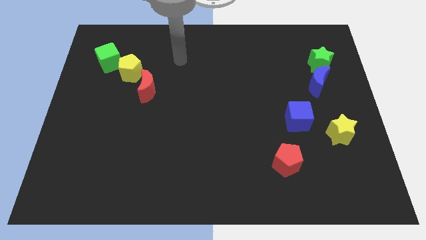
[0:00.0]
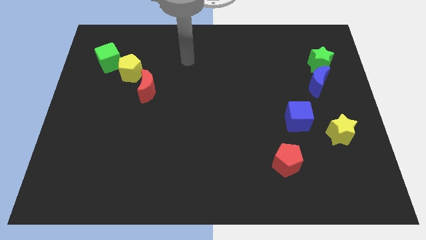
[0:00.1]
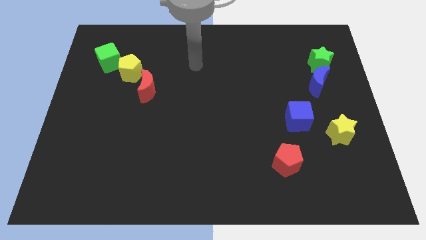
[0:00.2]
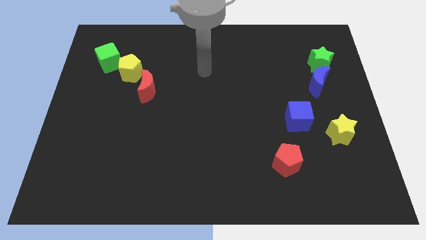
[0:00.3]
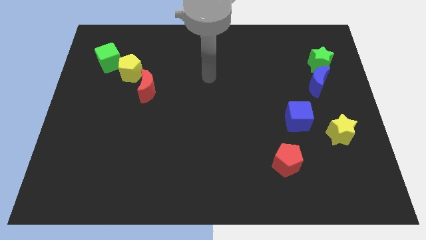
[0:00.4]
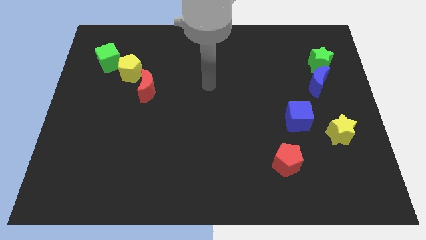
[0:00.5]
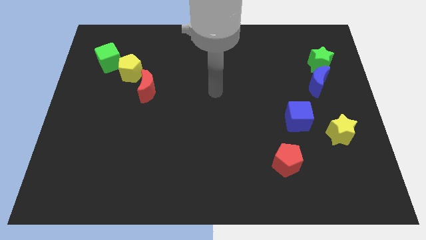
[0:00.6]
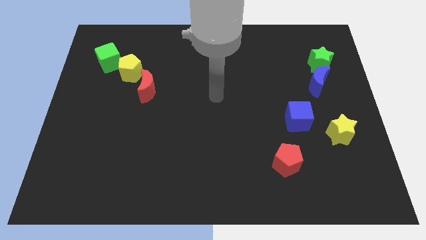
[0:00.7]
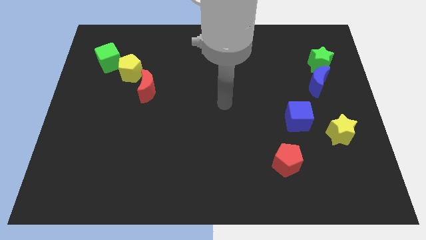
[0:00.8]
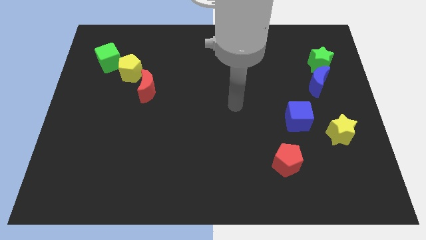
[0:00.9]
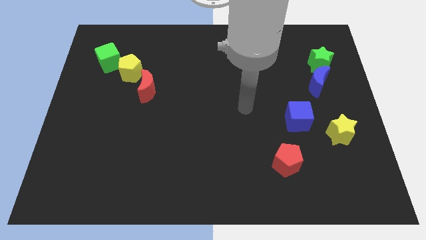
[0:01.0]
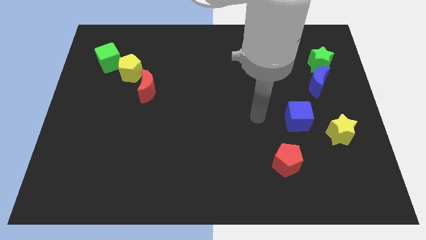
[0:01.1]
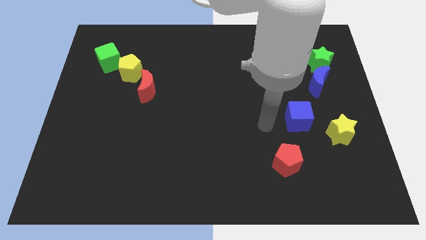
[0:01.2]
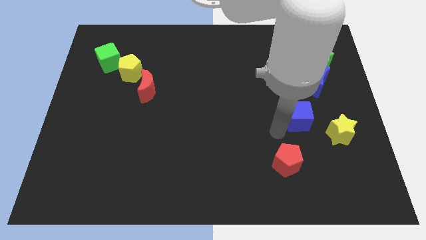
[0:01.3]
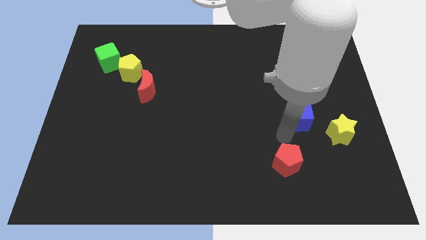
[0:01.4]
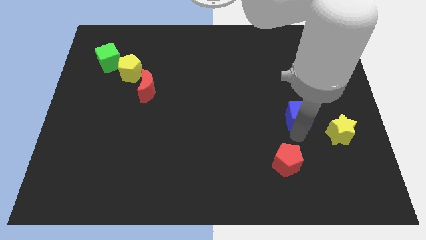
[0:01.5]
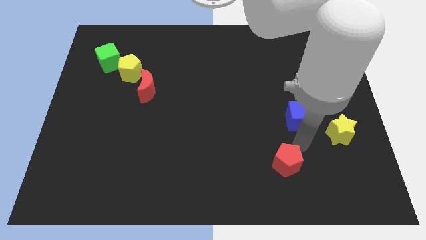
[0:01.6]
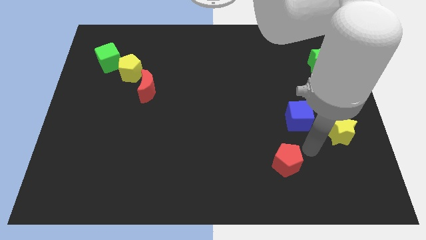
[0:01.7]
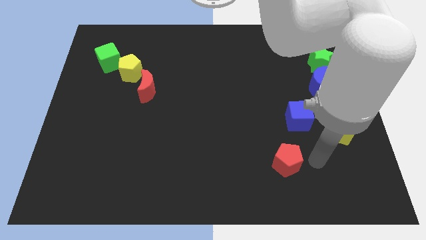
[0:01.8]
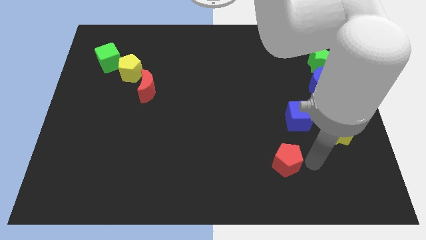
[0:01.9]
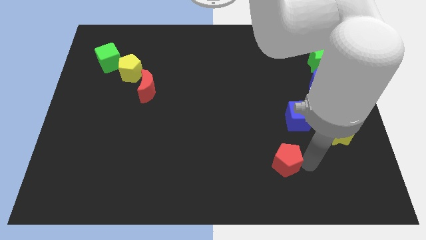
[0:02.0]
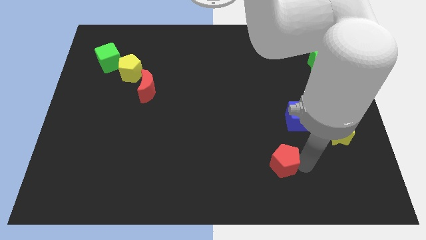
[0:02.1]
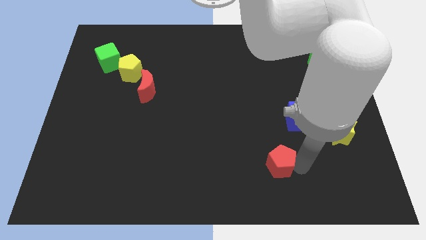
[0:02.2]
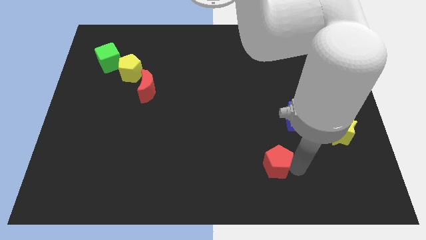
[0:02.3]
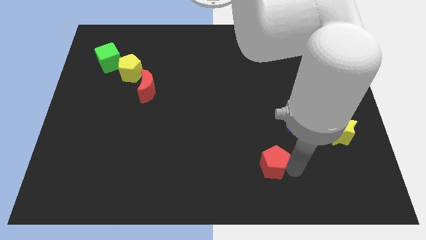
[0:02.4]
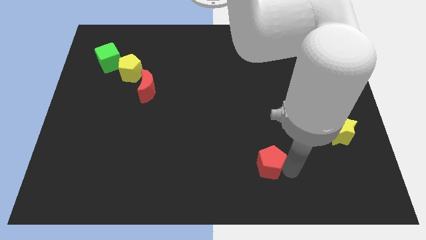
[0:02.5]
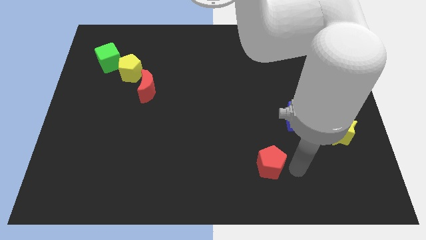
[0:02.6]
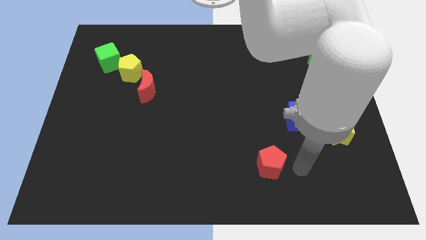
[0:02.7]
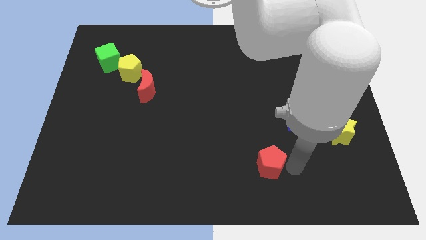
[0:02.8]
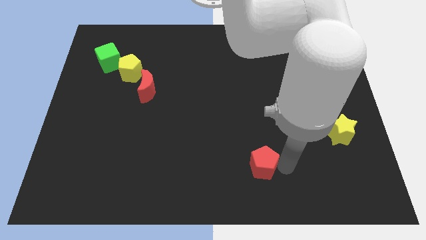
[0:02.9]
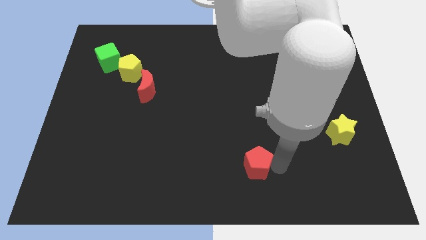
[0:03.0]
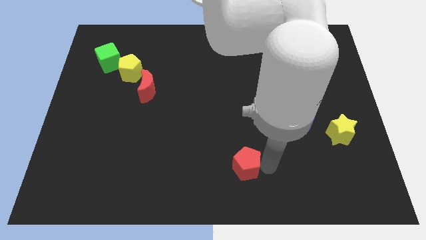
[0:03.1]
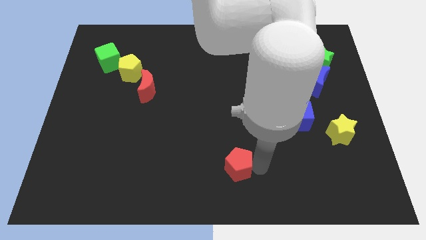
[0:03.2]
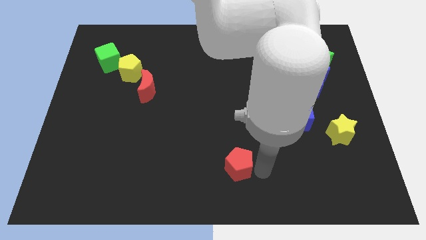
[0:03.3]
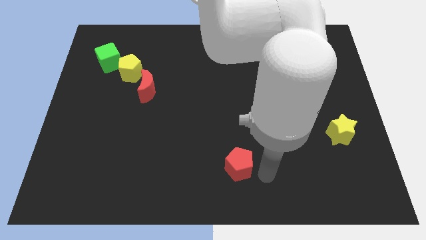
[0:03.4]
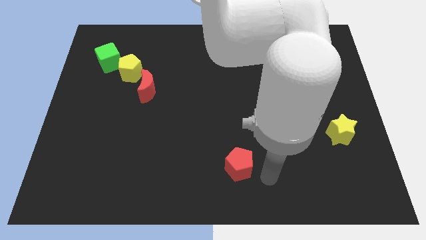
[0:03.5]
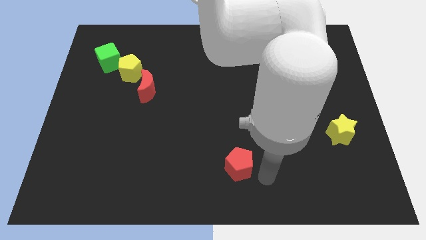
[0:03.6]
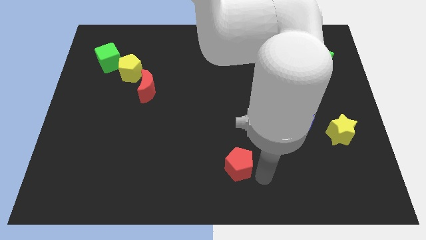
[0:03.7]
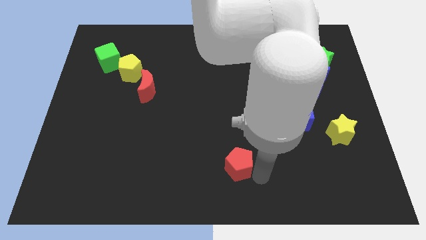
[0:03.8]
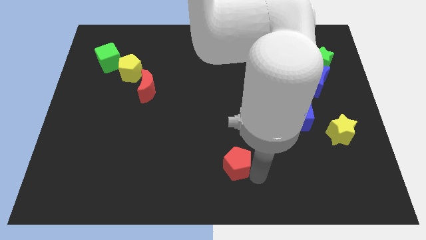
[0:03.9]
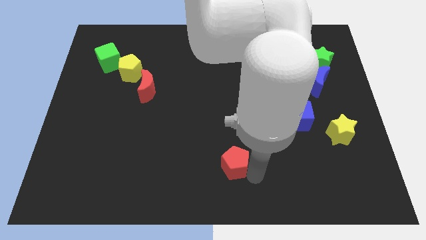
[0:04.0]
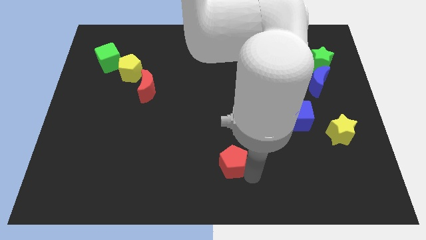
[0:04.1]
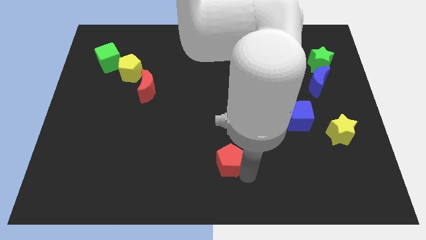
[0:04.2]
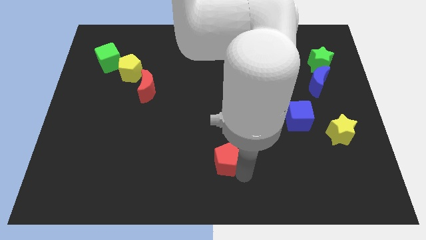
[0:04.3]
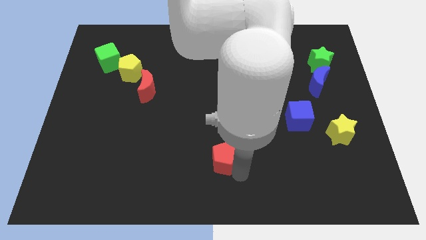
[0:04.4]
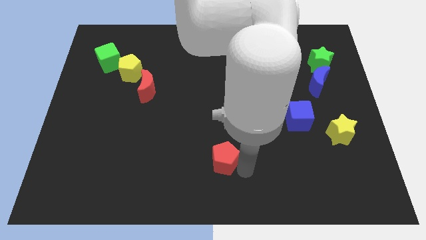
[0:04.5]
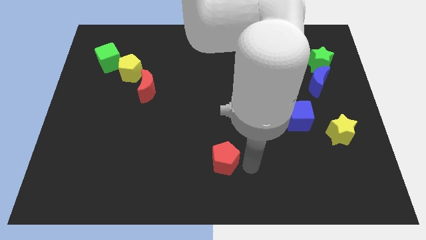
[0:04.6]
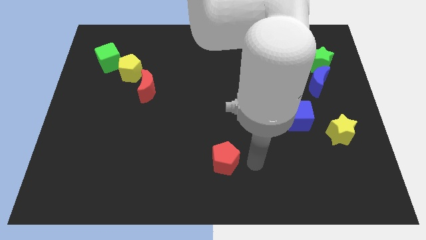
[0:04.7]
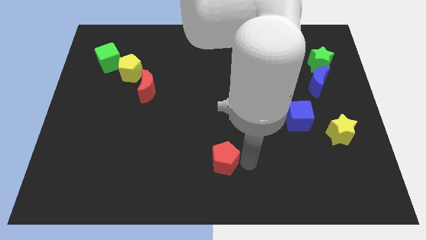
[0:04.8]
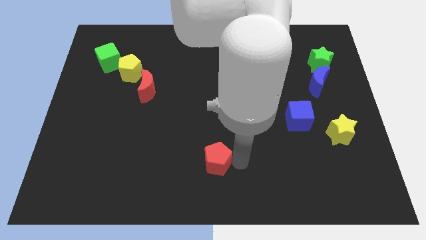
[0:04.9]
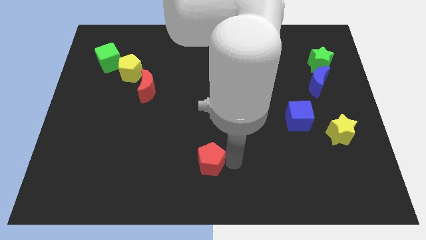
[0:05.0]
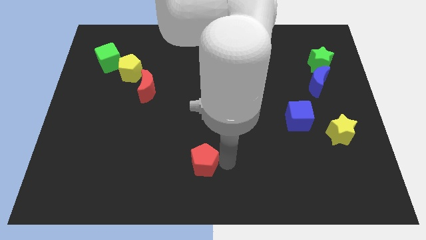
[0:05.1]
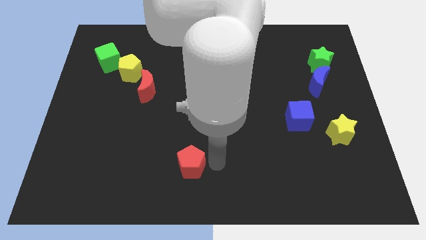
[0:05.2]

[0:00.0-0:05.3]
slide the red pentagon to the left

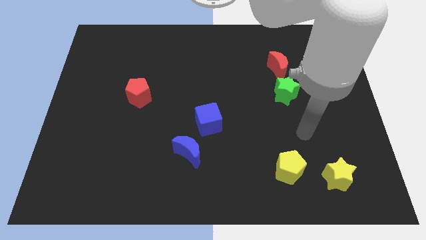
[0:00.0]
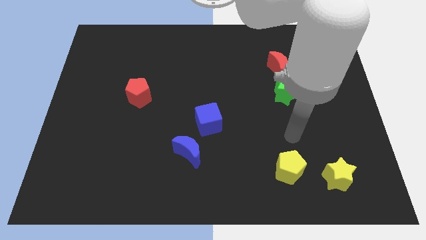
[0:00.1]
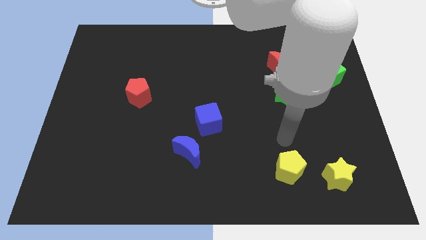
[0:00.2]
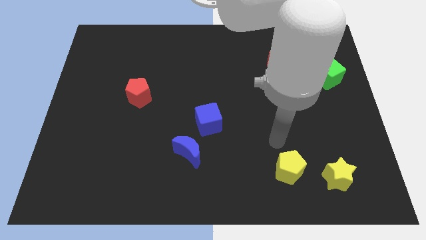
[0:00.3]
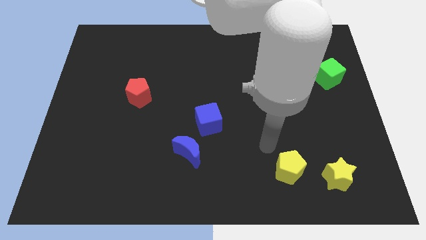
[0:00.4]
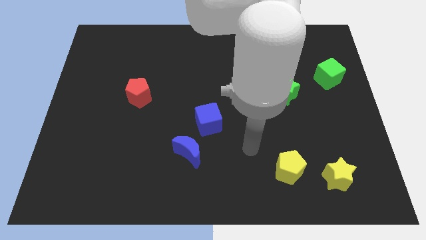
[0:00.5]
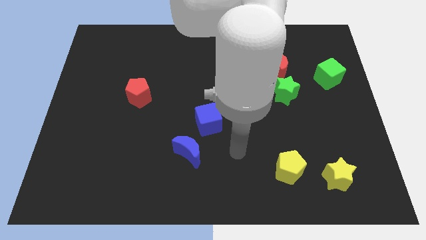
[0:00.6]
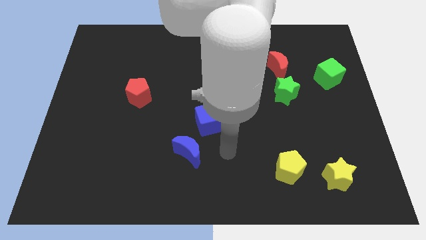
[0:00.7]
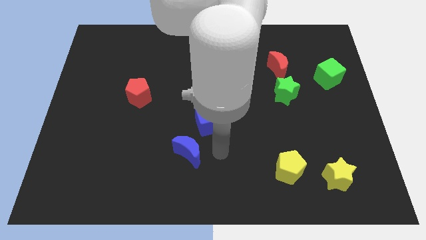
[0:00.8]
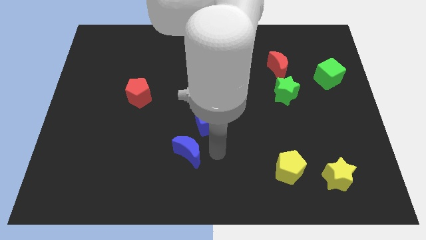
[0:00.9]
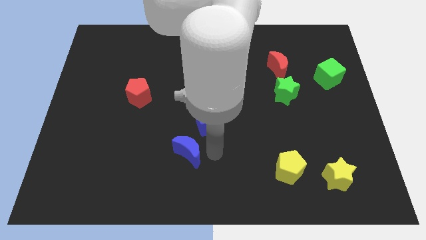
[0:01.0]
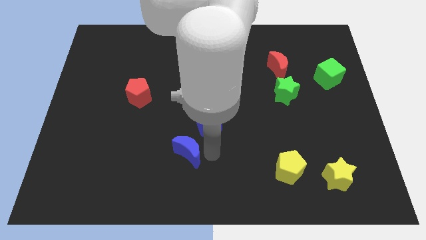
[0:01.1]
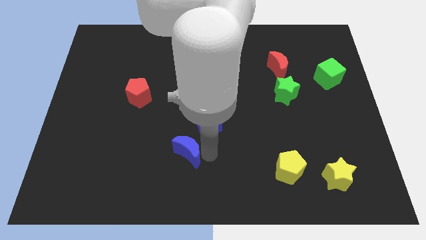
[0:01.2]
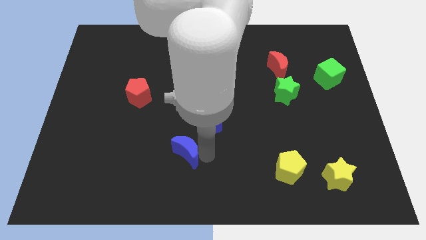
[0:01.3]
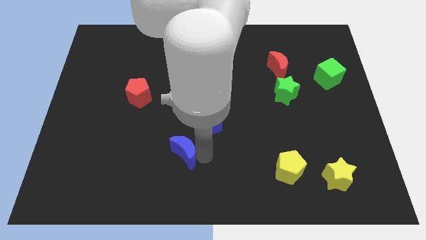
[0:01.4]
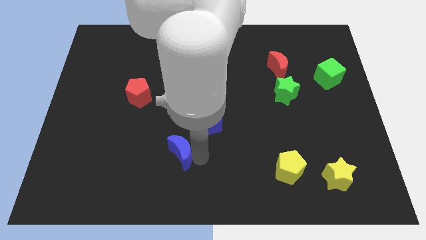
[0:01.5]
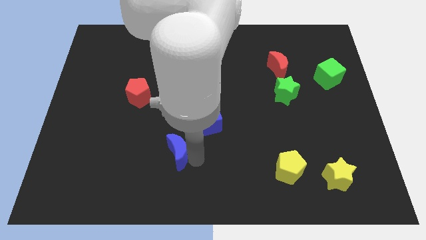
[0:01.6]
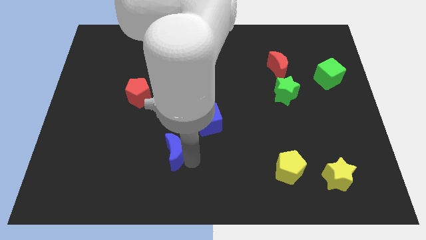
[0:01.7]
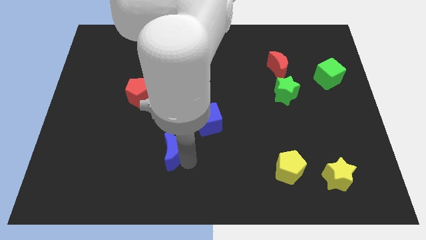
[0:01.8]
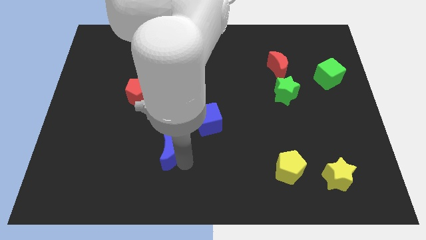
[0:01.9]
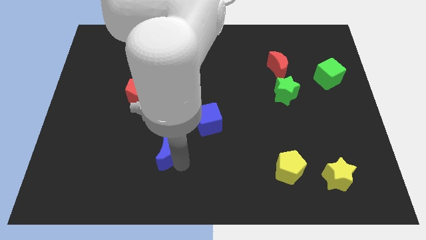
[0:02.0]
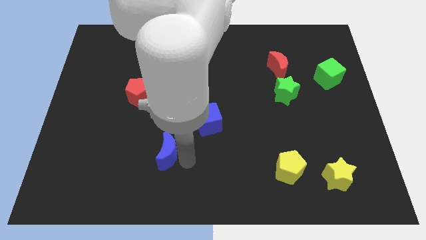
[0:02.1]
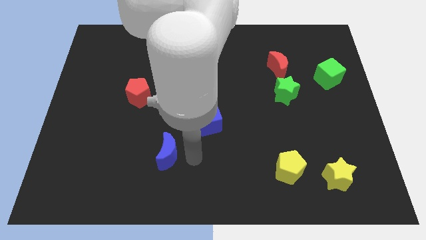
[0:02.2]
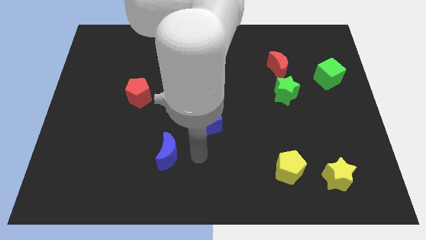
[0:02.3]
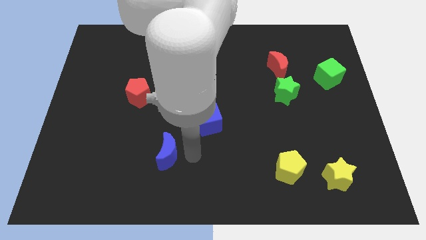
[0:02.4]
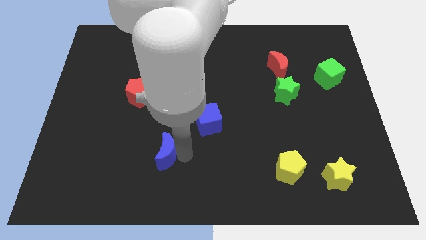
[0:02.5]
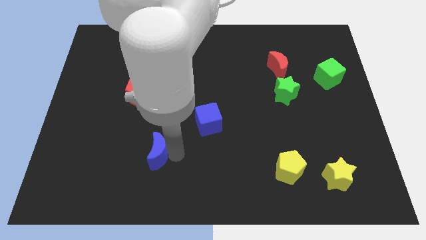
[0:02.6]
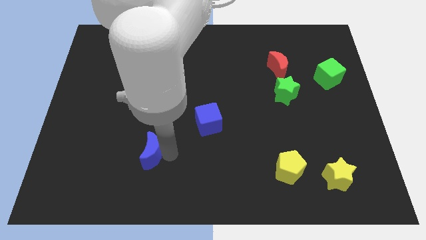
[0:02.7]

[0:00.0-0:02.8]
slightly move the blue moon left
